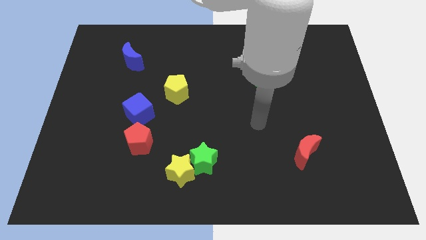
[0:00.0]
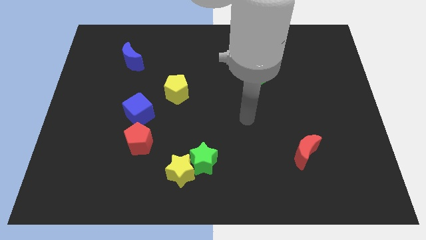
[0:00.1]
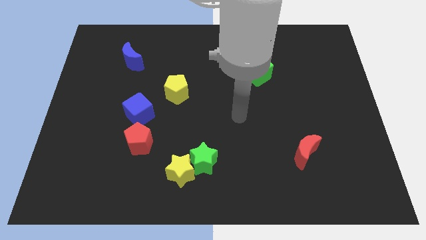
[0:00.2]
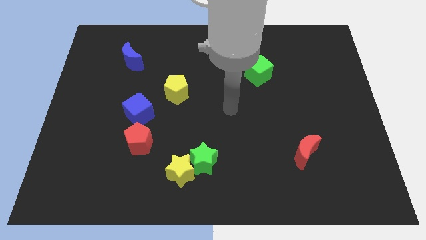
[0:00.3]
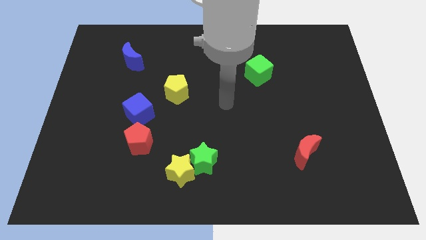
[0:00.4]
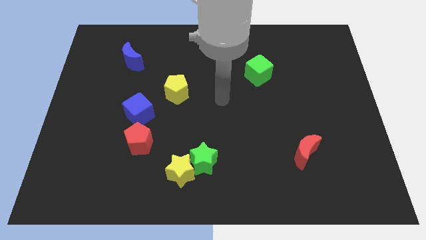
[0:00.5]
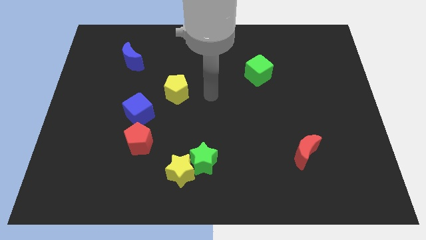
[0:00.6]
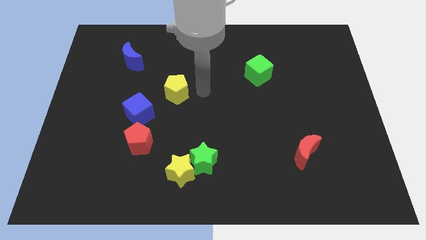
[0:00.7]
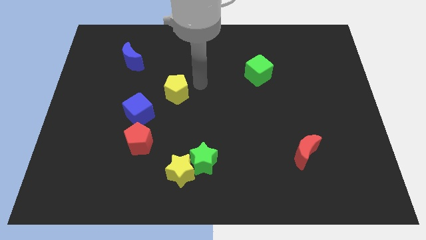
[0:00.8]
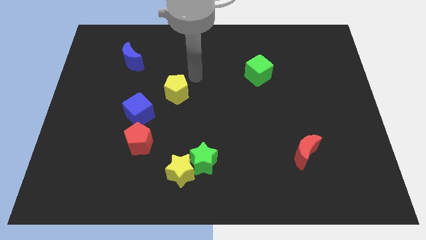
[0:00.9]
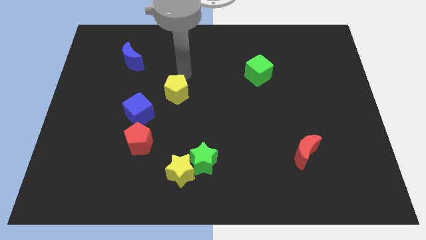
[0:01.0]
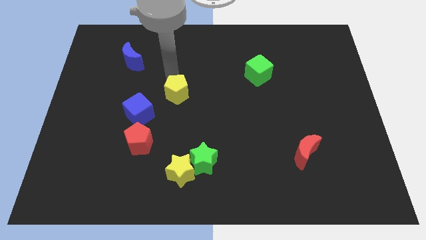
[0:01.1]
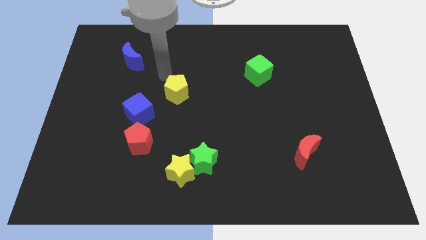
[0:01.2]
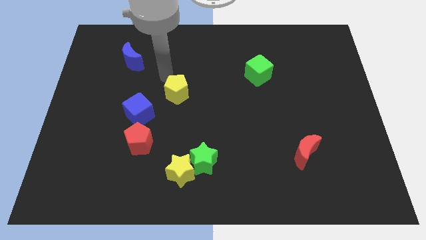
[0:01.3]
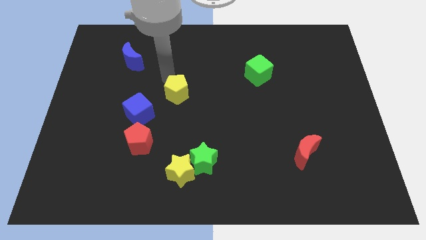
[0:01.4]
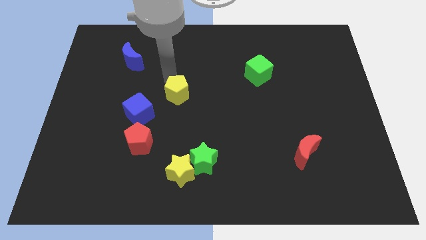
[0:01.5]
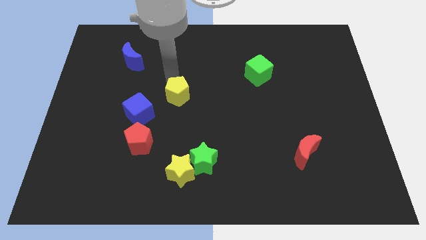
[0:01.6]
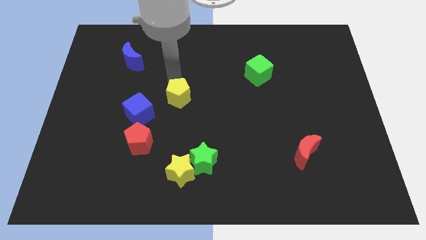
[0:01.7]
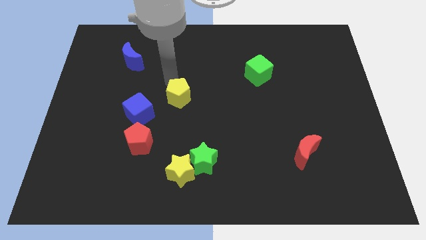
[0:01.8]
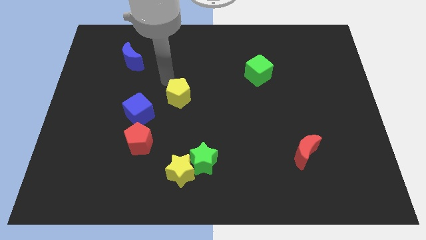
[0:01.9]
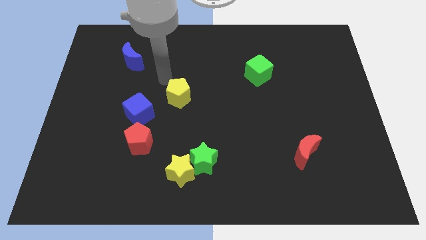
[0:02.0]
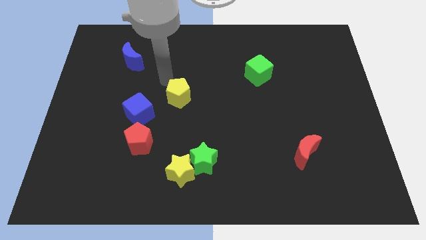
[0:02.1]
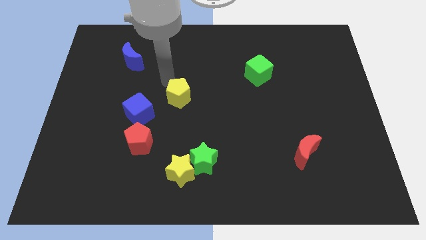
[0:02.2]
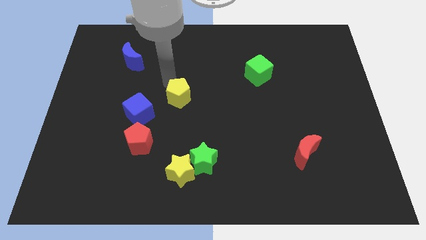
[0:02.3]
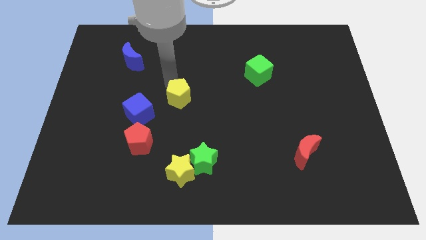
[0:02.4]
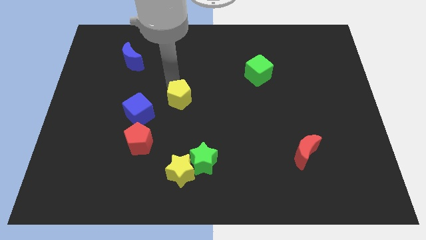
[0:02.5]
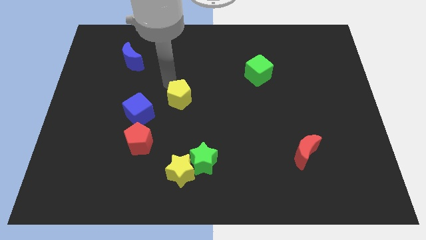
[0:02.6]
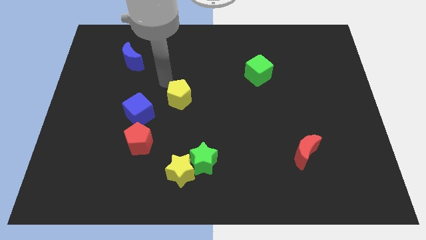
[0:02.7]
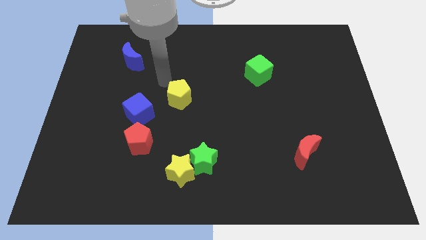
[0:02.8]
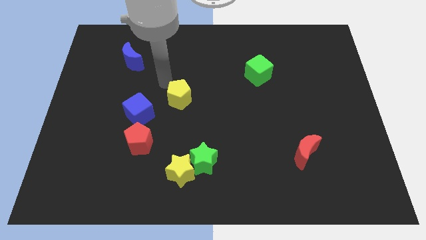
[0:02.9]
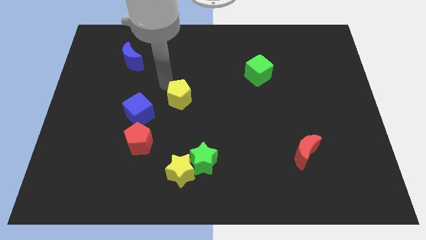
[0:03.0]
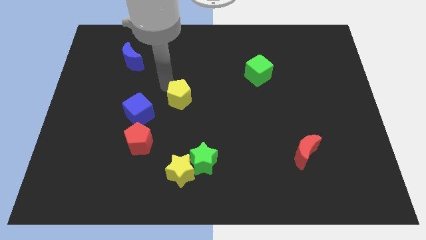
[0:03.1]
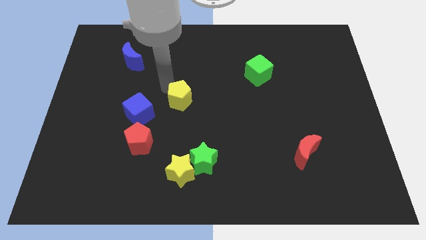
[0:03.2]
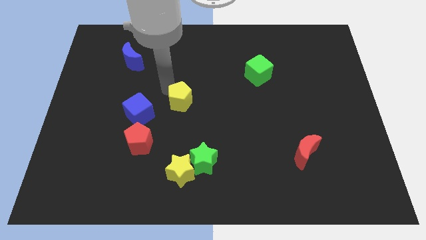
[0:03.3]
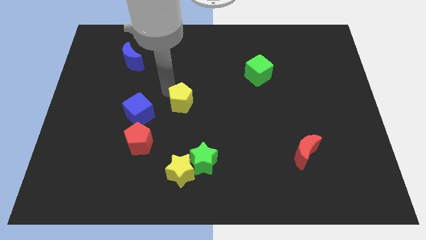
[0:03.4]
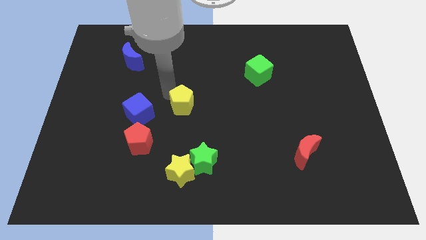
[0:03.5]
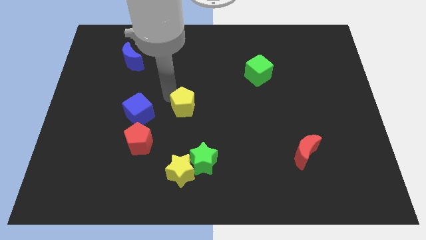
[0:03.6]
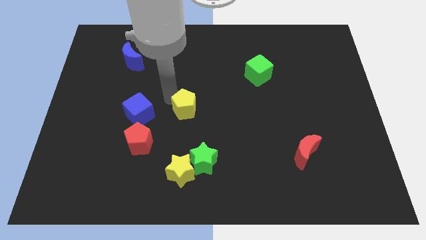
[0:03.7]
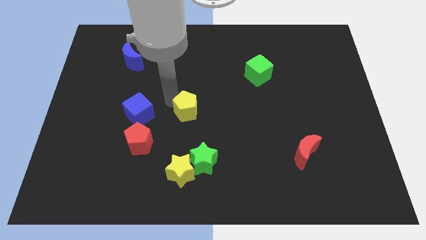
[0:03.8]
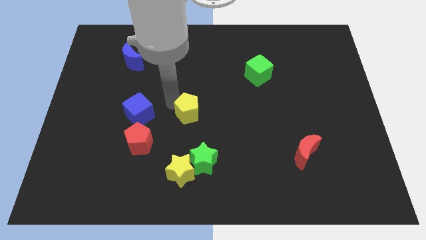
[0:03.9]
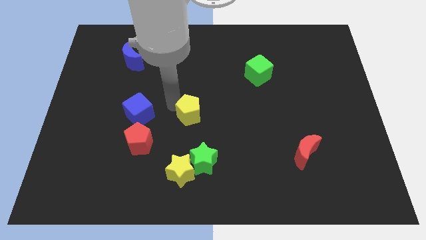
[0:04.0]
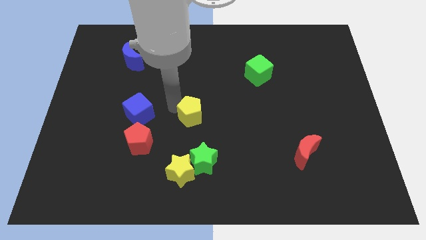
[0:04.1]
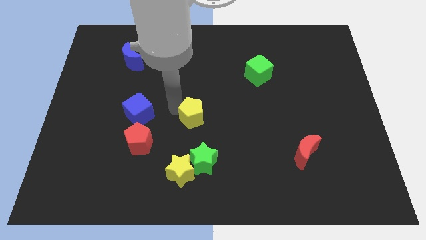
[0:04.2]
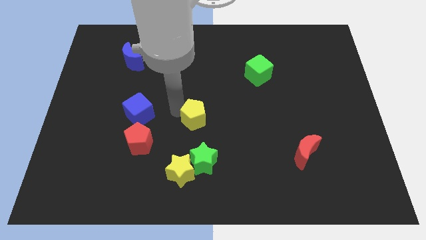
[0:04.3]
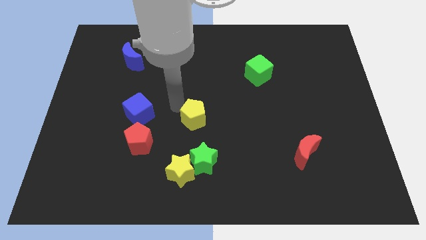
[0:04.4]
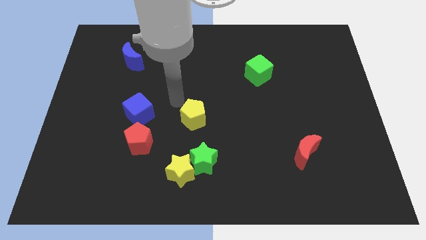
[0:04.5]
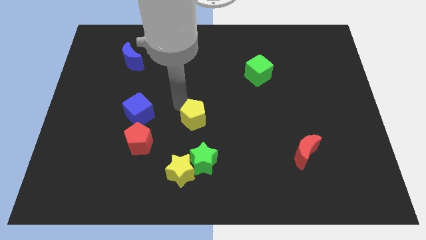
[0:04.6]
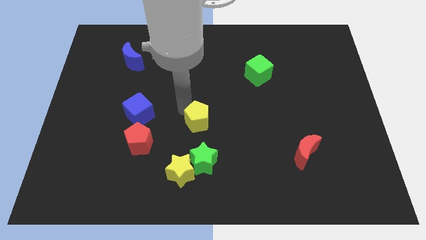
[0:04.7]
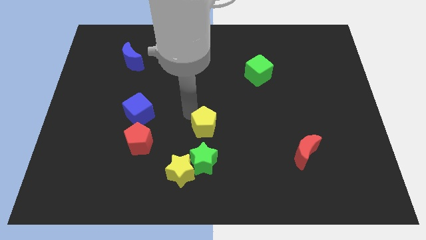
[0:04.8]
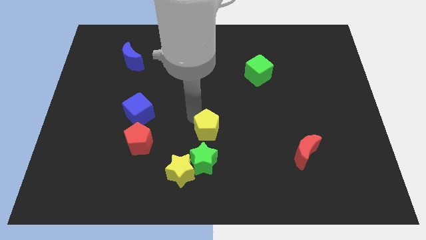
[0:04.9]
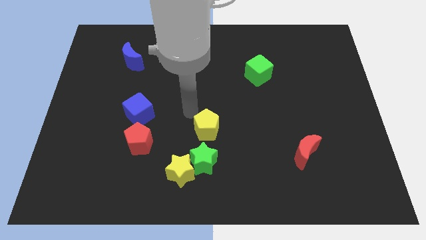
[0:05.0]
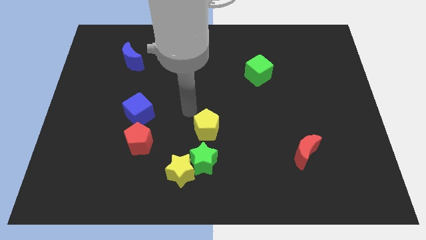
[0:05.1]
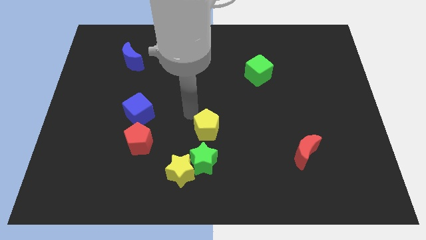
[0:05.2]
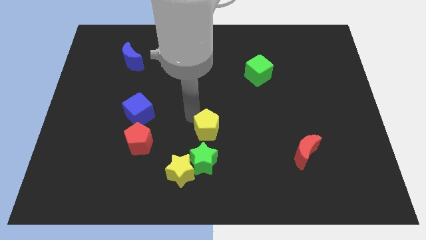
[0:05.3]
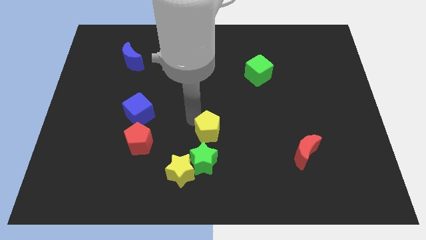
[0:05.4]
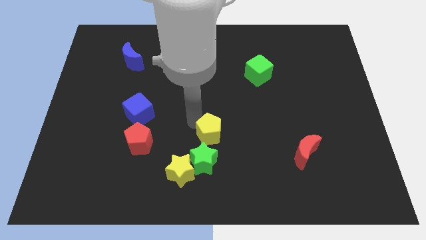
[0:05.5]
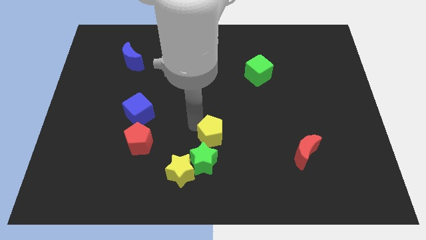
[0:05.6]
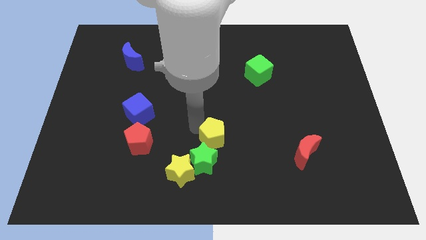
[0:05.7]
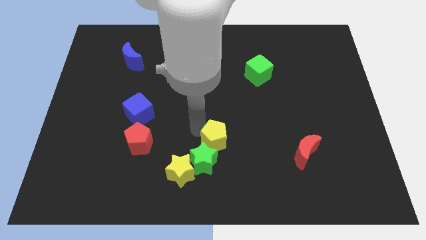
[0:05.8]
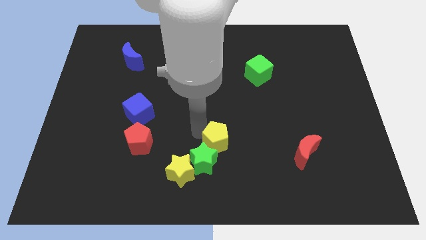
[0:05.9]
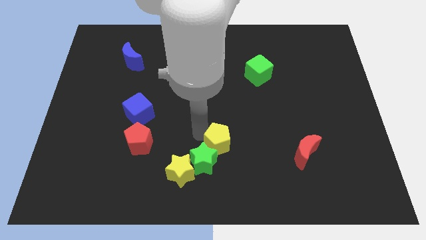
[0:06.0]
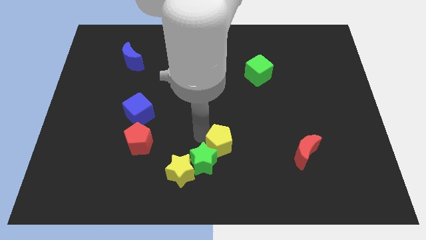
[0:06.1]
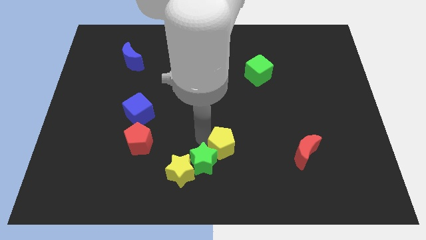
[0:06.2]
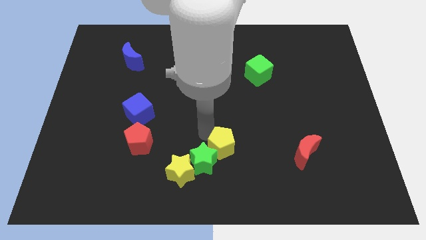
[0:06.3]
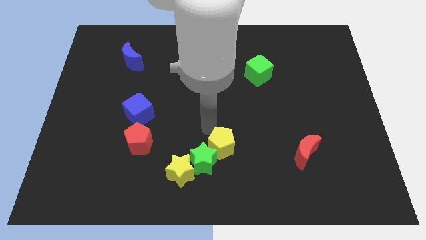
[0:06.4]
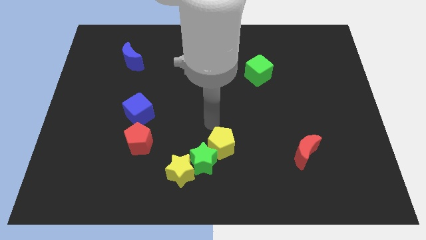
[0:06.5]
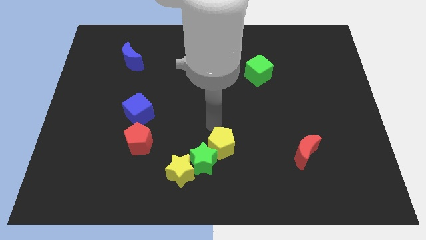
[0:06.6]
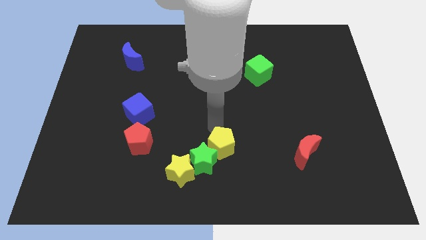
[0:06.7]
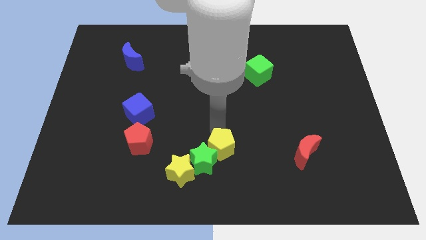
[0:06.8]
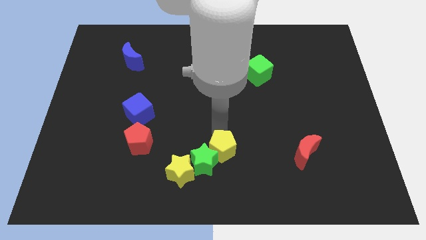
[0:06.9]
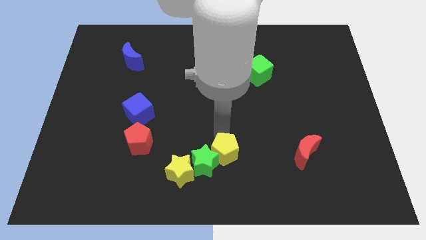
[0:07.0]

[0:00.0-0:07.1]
slide the yellow pentagon to the right side of the yellow star

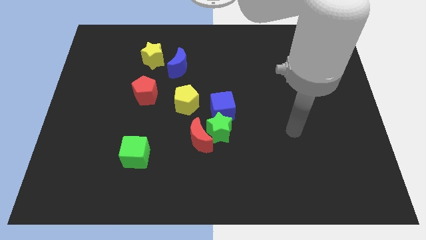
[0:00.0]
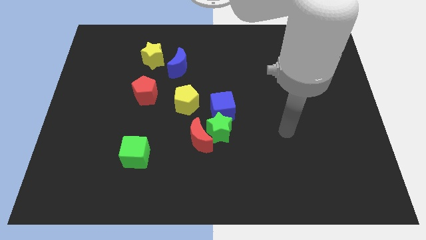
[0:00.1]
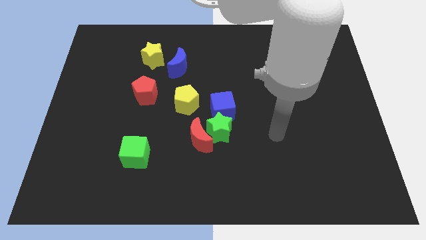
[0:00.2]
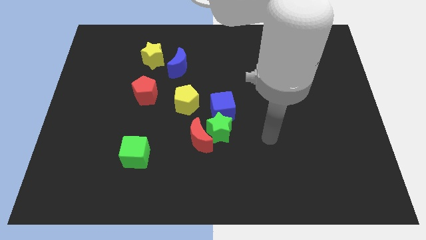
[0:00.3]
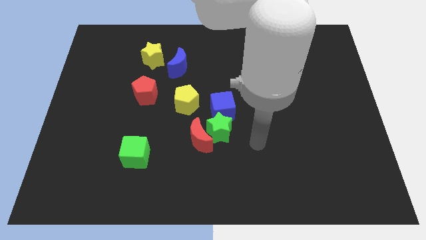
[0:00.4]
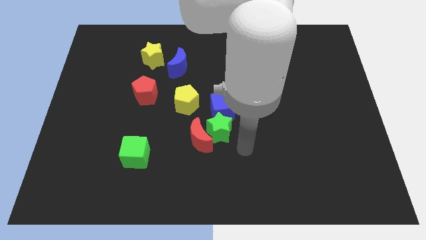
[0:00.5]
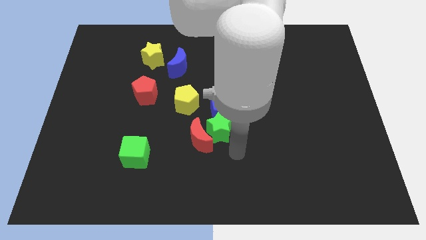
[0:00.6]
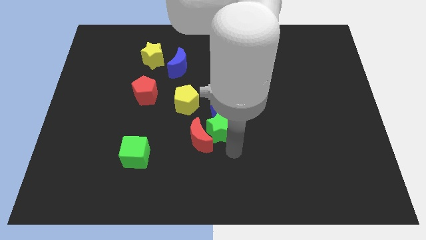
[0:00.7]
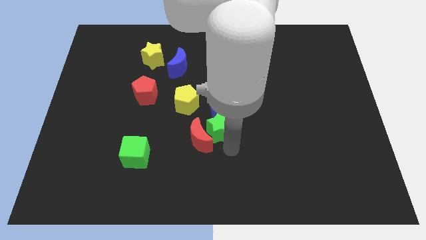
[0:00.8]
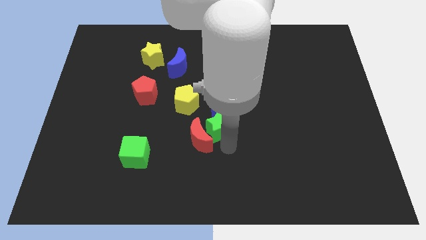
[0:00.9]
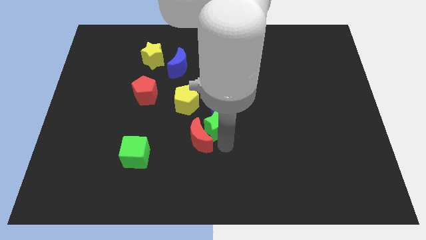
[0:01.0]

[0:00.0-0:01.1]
put the green star to the top of the red moon
